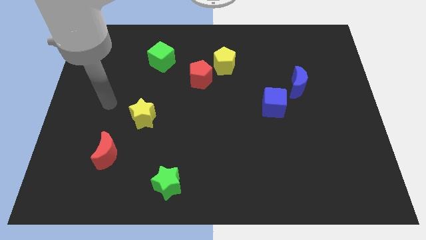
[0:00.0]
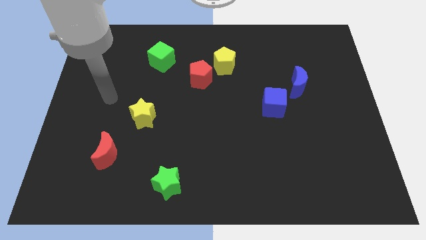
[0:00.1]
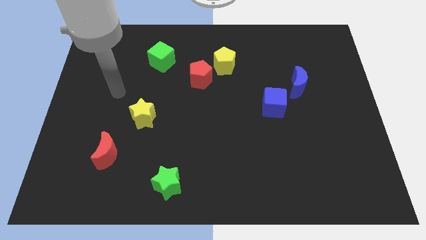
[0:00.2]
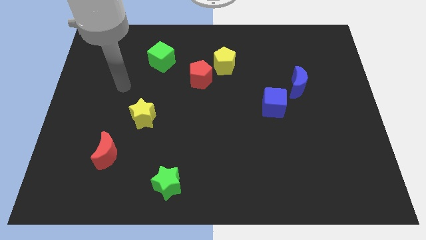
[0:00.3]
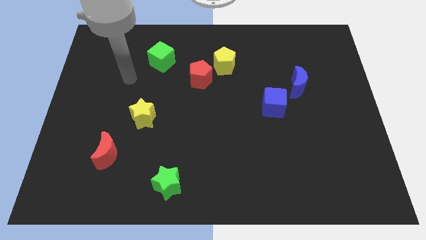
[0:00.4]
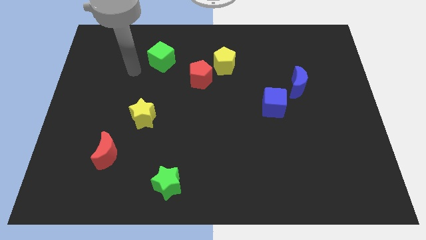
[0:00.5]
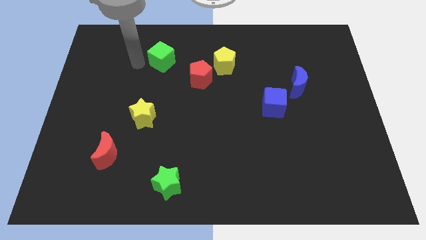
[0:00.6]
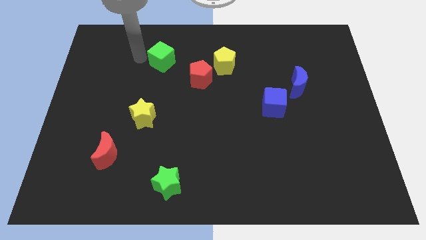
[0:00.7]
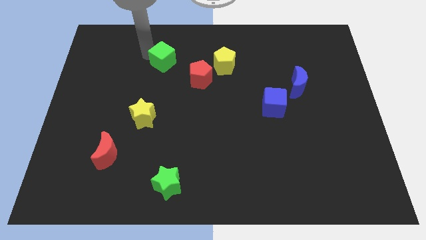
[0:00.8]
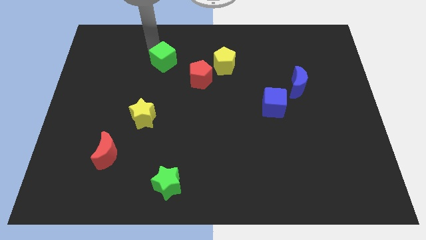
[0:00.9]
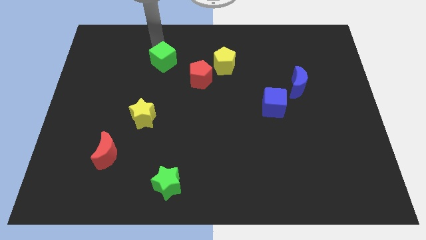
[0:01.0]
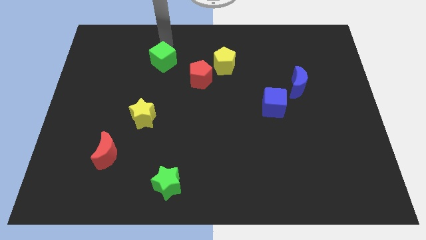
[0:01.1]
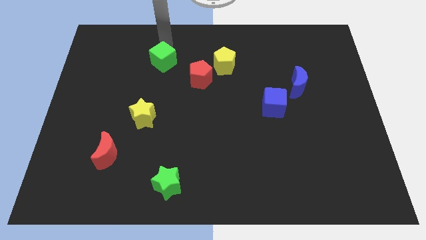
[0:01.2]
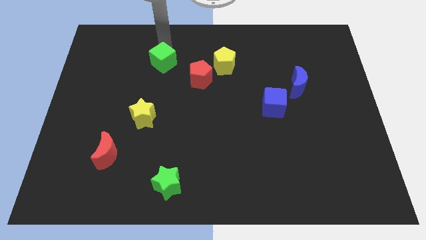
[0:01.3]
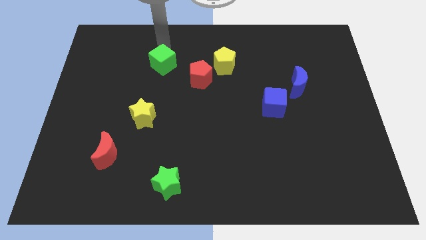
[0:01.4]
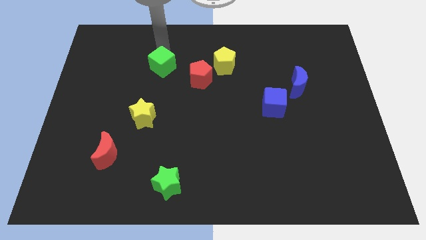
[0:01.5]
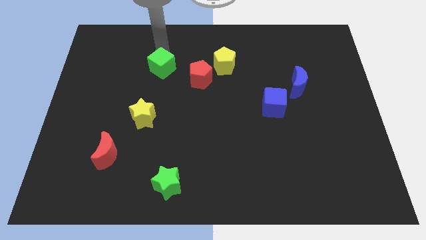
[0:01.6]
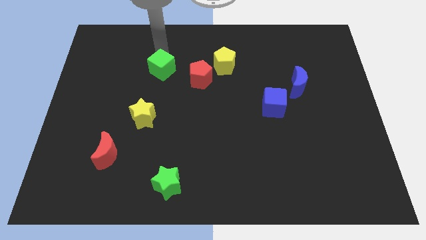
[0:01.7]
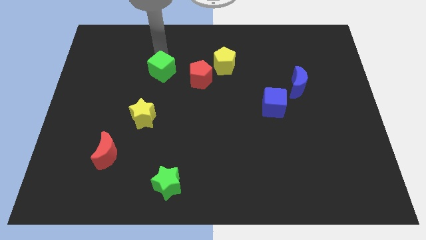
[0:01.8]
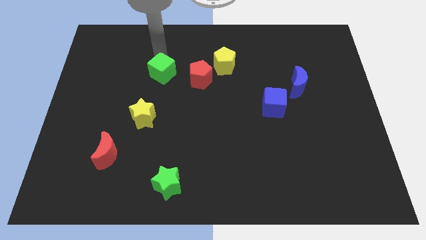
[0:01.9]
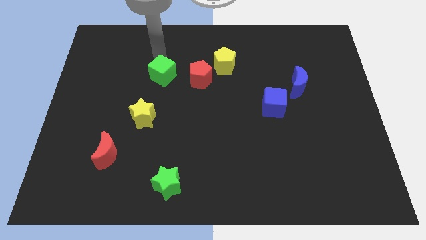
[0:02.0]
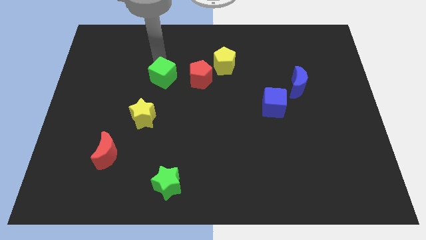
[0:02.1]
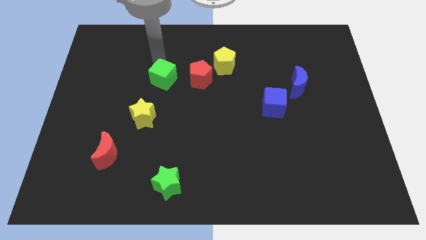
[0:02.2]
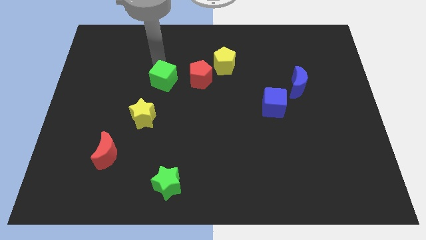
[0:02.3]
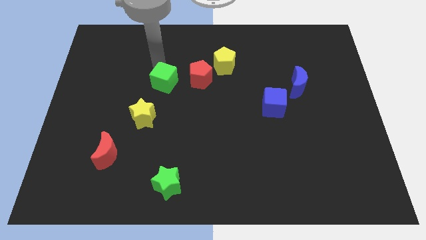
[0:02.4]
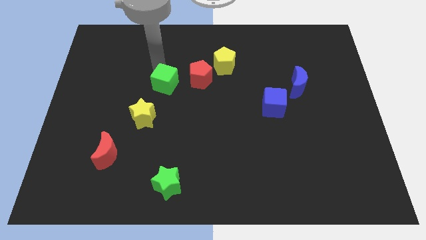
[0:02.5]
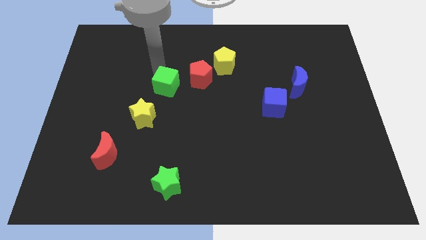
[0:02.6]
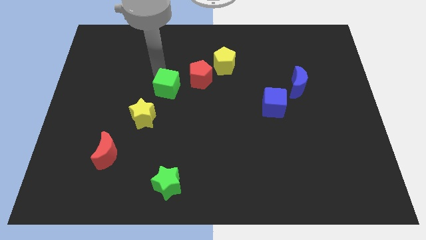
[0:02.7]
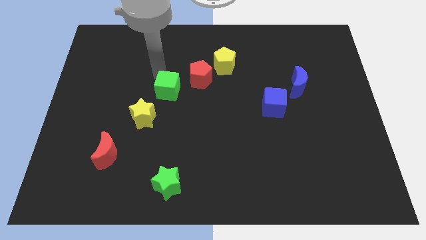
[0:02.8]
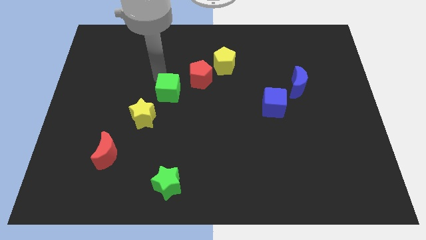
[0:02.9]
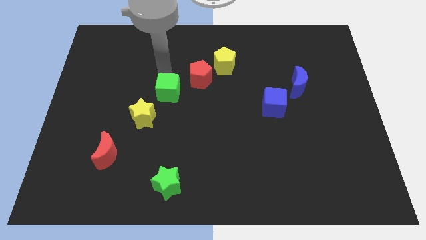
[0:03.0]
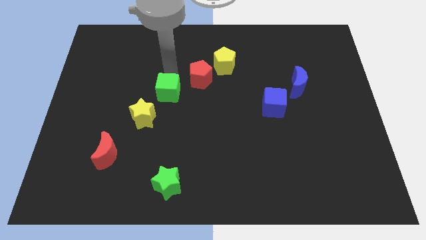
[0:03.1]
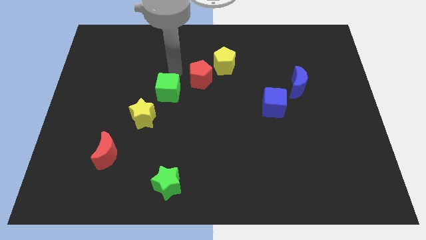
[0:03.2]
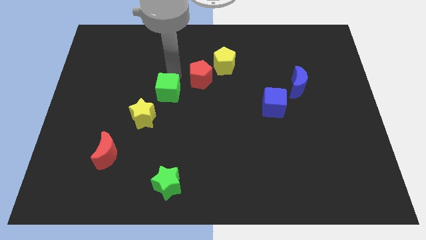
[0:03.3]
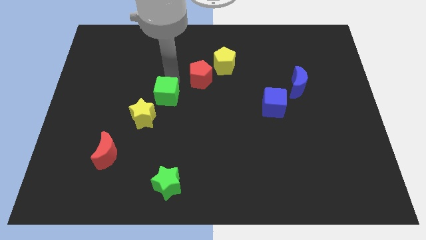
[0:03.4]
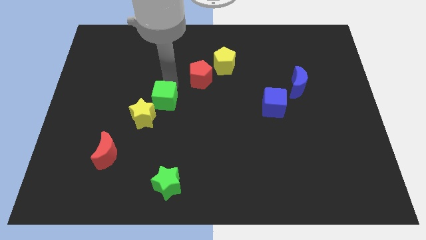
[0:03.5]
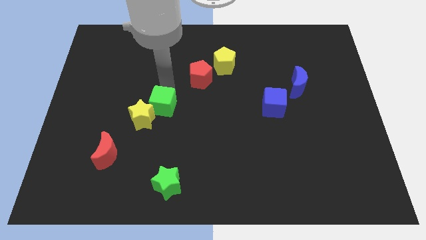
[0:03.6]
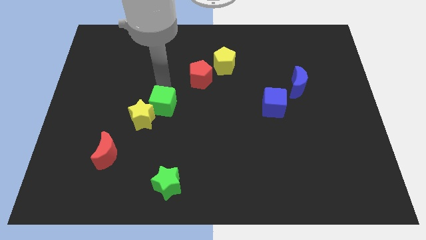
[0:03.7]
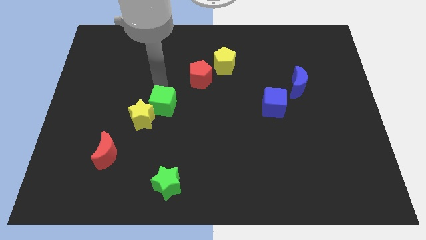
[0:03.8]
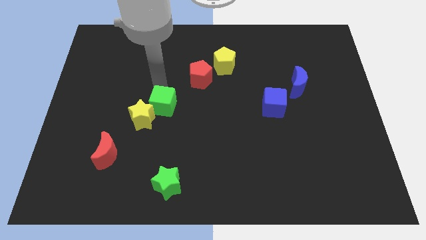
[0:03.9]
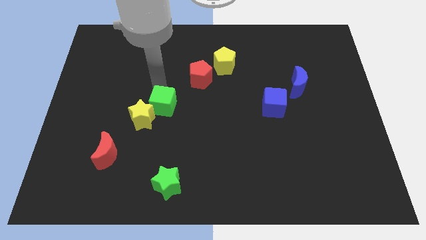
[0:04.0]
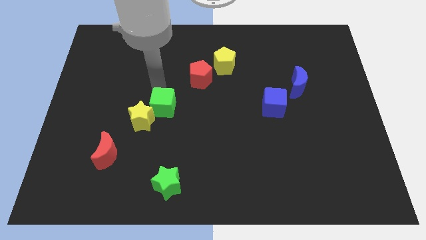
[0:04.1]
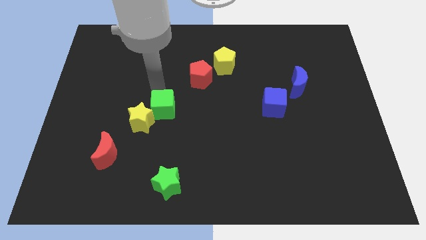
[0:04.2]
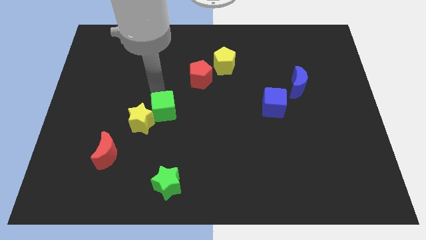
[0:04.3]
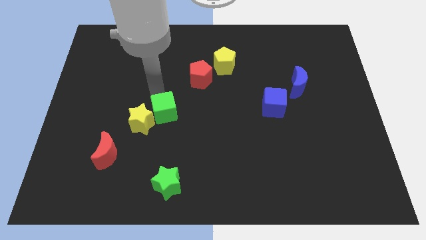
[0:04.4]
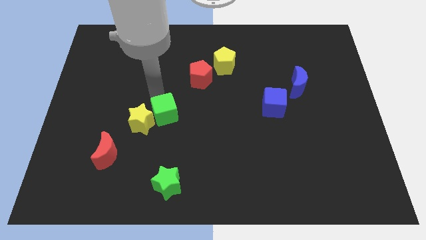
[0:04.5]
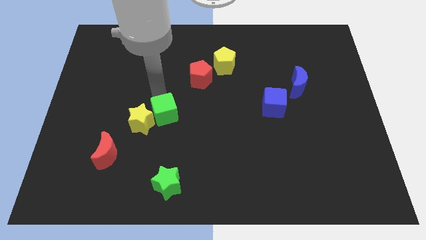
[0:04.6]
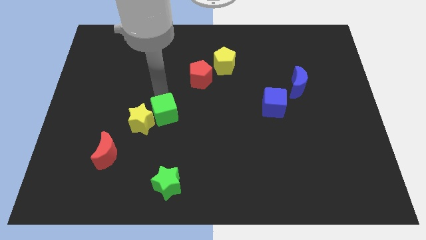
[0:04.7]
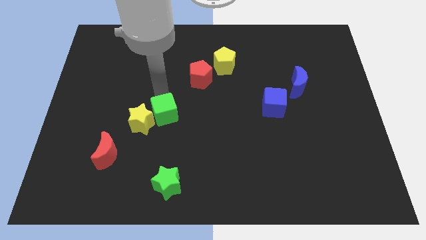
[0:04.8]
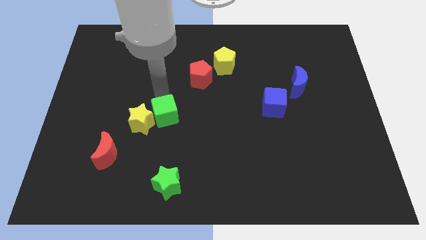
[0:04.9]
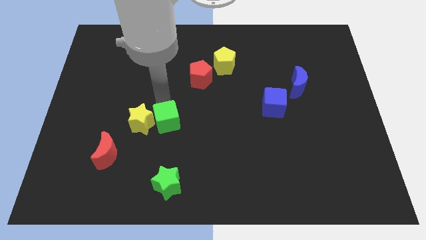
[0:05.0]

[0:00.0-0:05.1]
push the green cube to the top of the green star

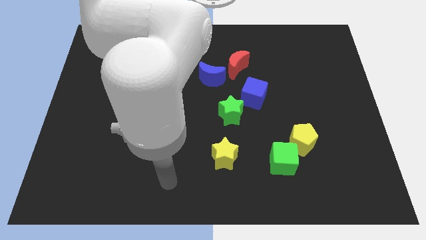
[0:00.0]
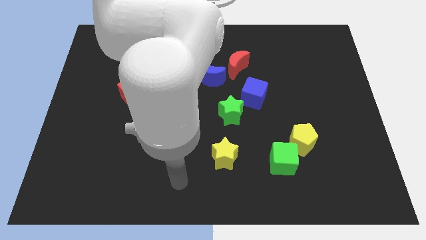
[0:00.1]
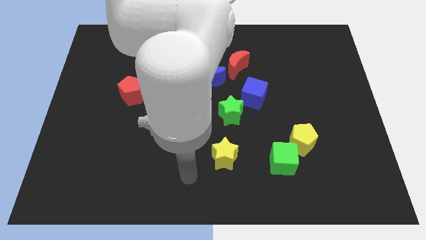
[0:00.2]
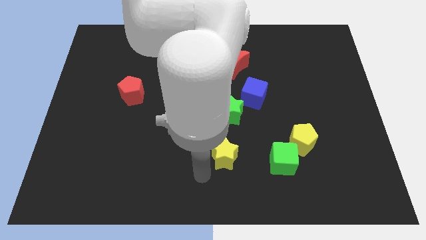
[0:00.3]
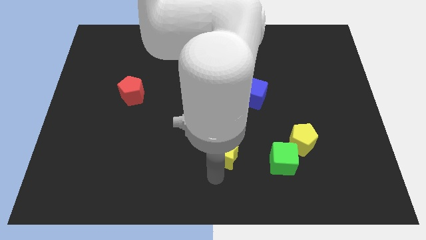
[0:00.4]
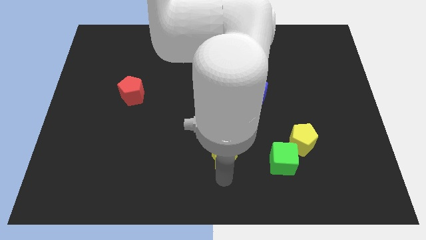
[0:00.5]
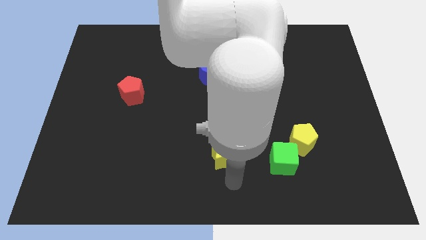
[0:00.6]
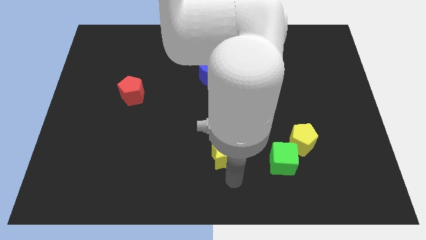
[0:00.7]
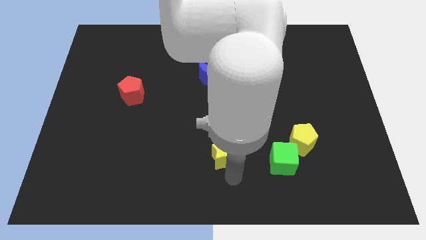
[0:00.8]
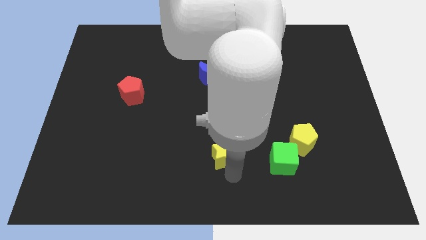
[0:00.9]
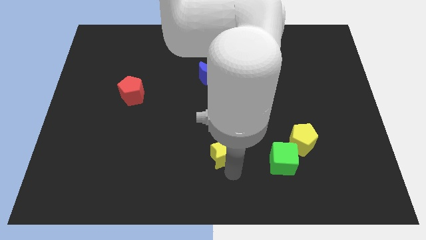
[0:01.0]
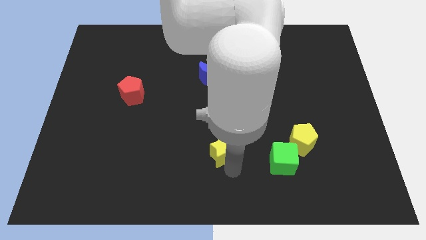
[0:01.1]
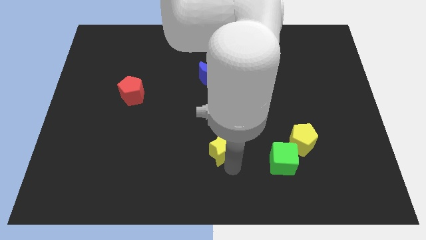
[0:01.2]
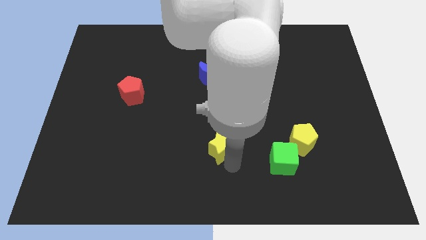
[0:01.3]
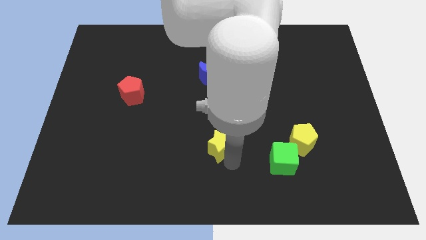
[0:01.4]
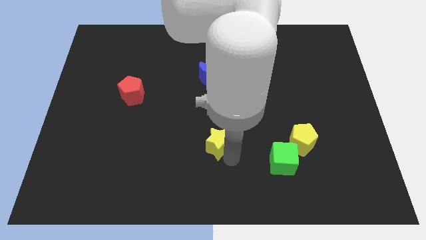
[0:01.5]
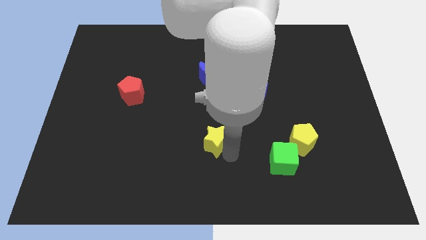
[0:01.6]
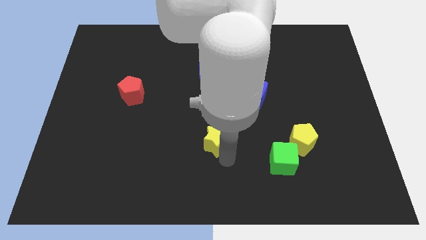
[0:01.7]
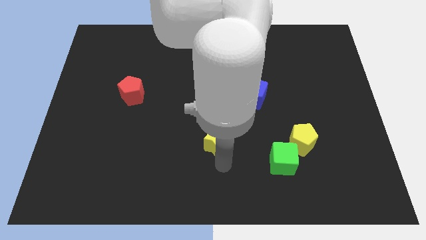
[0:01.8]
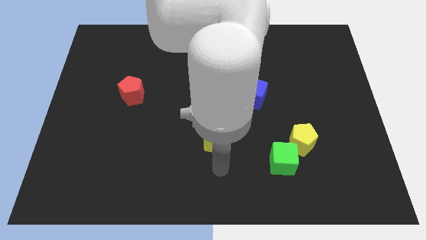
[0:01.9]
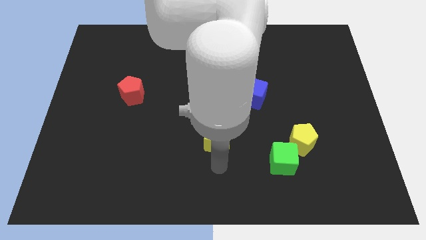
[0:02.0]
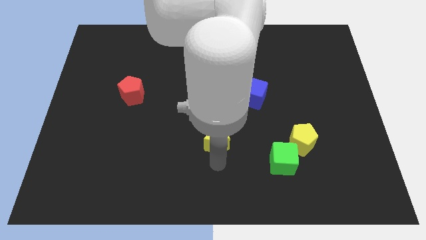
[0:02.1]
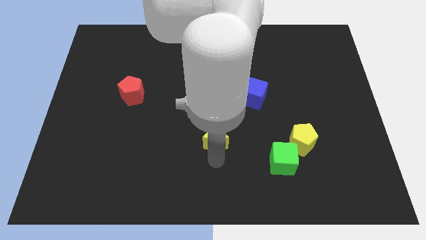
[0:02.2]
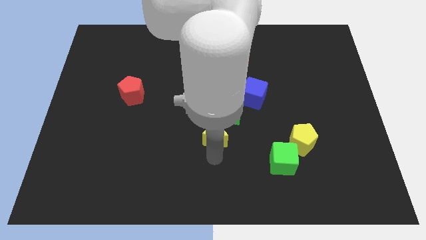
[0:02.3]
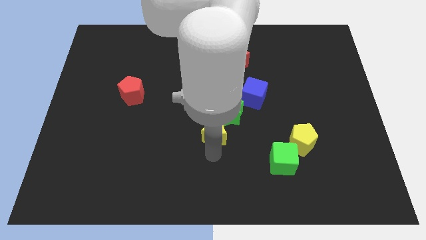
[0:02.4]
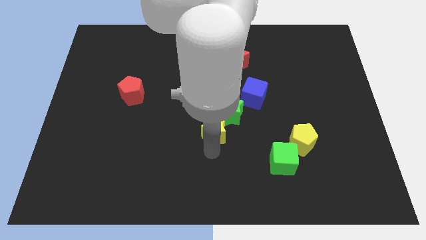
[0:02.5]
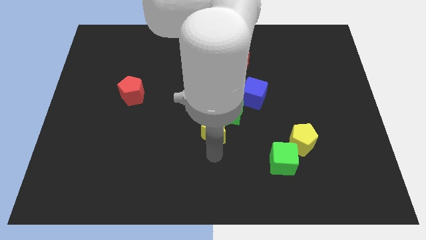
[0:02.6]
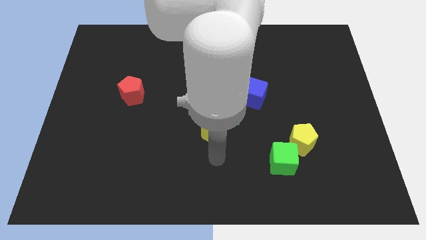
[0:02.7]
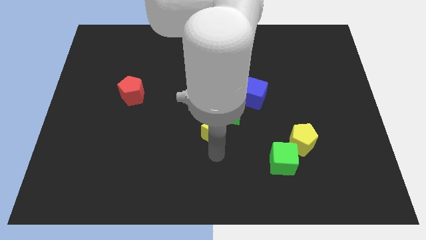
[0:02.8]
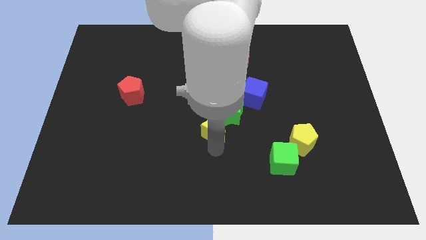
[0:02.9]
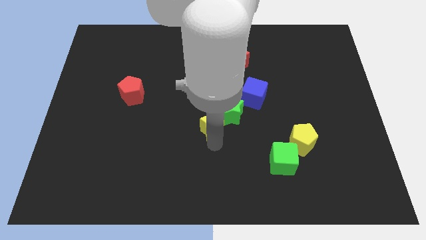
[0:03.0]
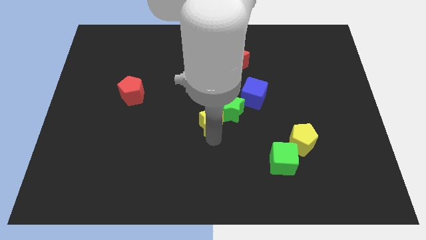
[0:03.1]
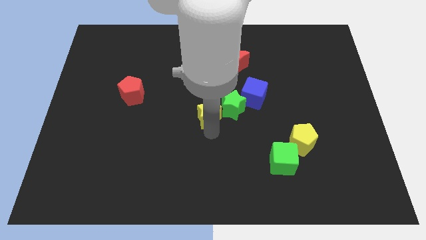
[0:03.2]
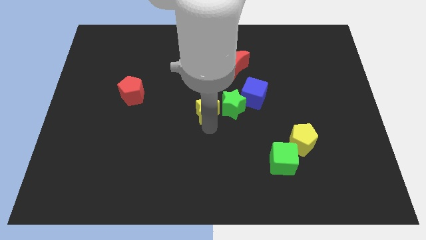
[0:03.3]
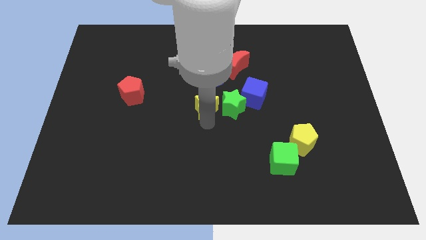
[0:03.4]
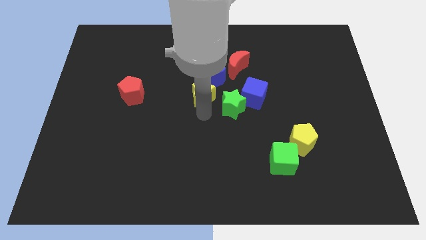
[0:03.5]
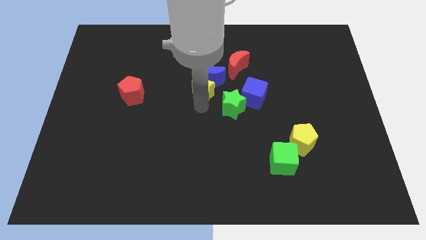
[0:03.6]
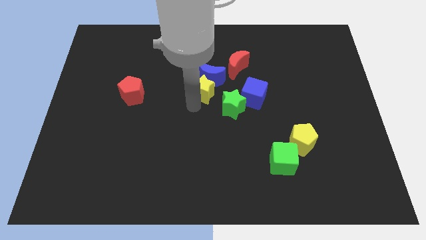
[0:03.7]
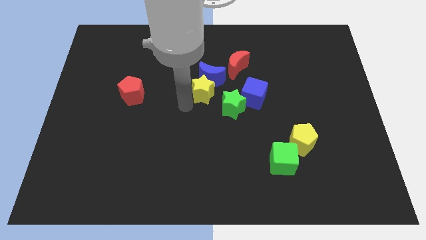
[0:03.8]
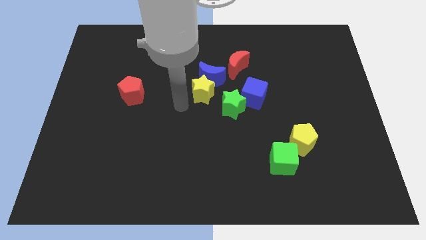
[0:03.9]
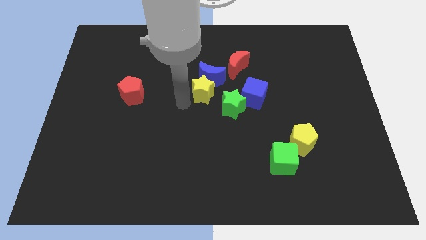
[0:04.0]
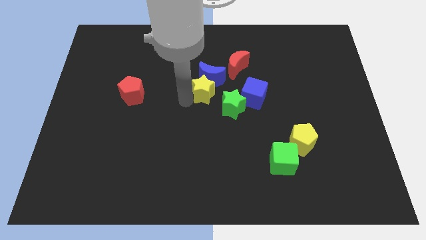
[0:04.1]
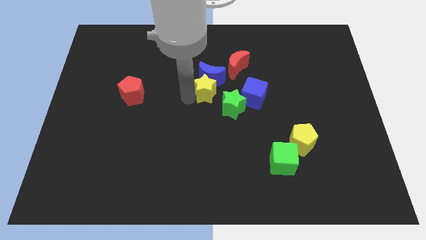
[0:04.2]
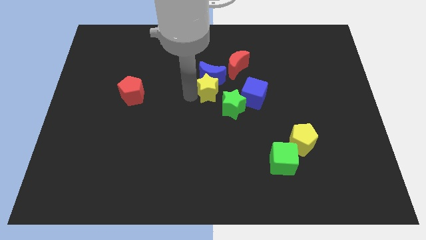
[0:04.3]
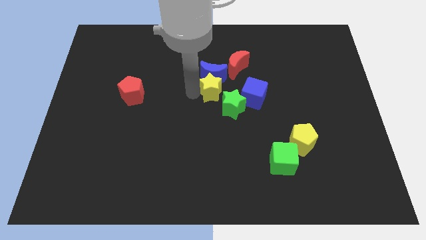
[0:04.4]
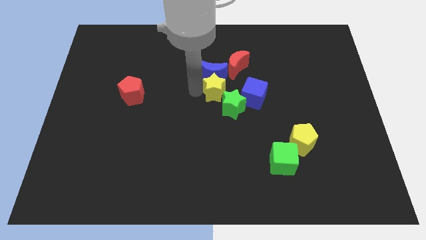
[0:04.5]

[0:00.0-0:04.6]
put the yellow star above the green star
